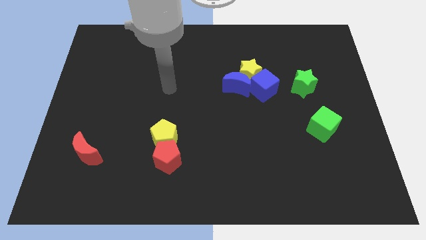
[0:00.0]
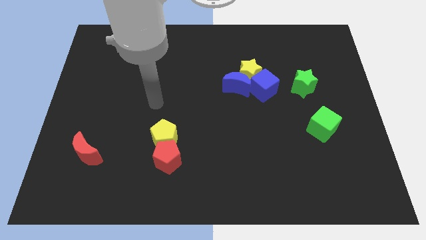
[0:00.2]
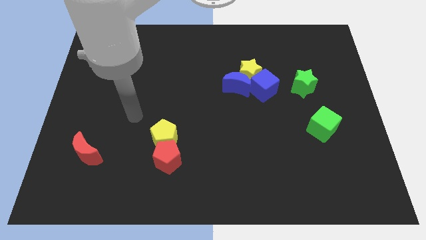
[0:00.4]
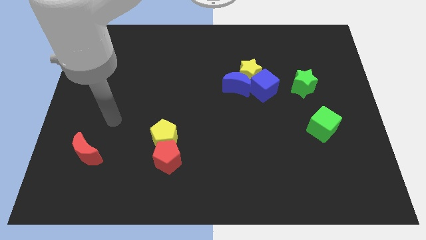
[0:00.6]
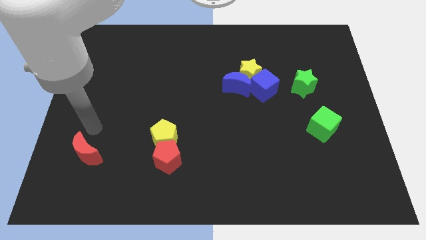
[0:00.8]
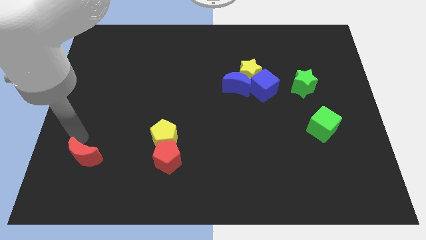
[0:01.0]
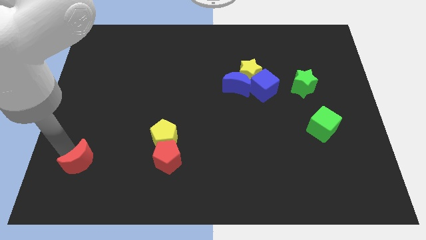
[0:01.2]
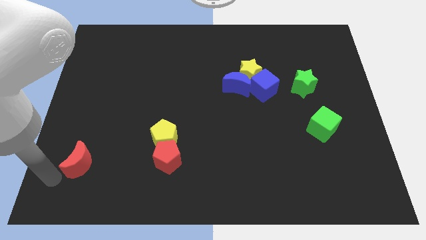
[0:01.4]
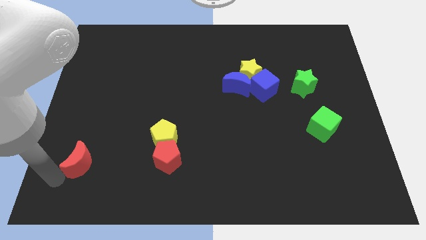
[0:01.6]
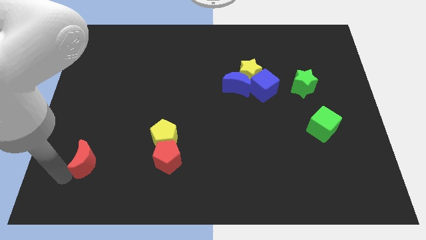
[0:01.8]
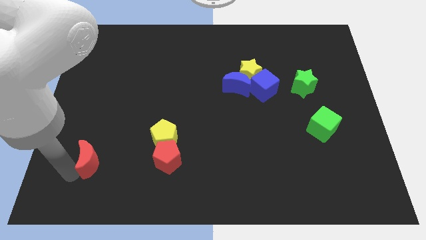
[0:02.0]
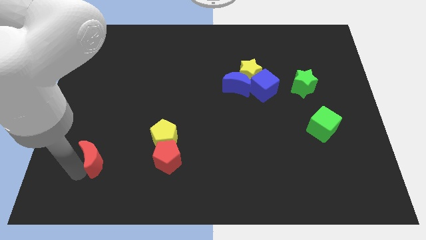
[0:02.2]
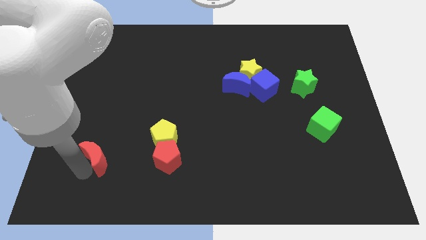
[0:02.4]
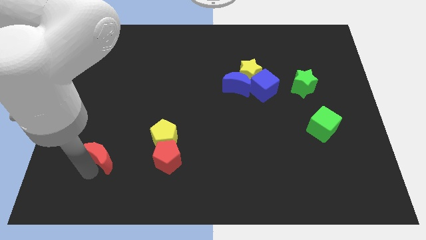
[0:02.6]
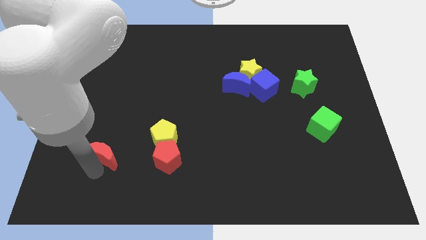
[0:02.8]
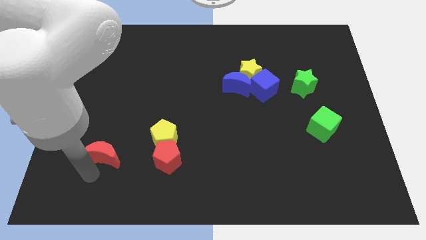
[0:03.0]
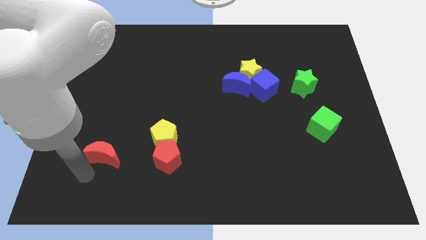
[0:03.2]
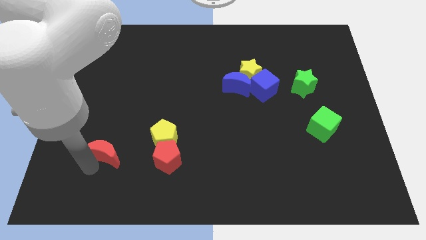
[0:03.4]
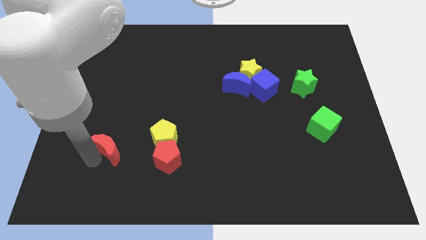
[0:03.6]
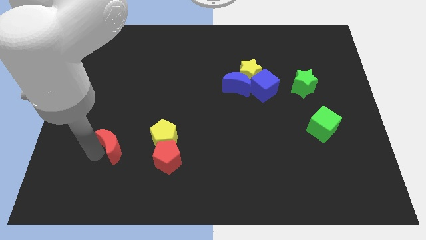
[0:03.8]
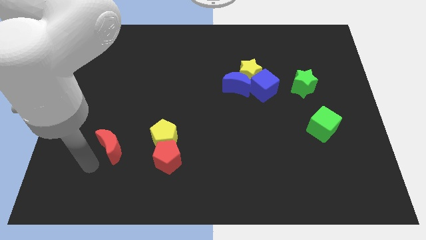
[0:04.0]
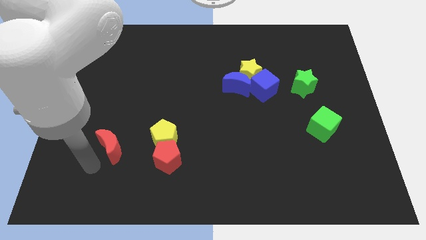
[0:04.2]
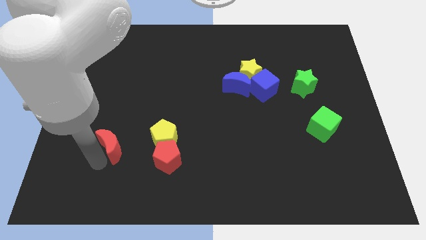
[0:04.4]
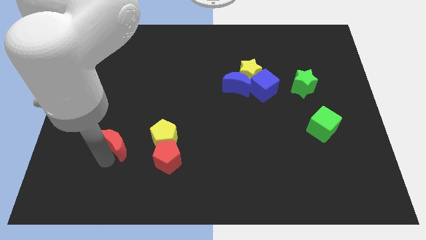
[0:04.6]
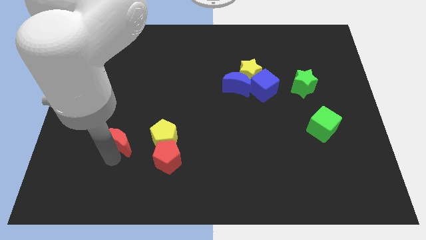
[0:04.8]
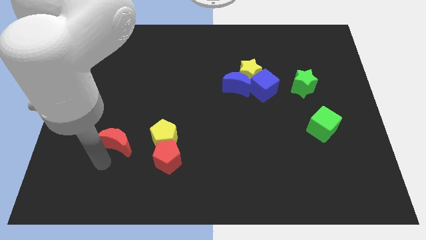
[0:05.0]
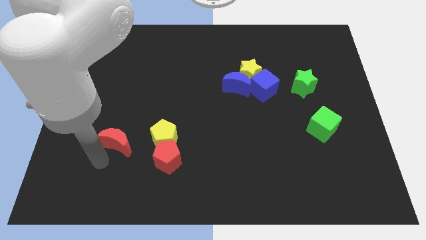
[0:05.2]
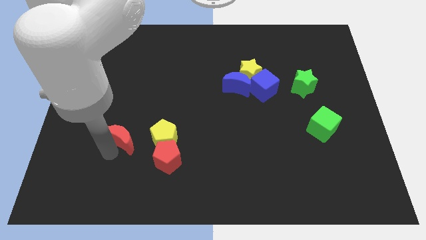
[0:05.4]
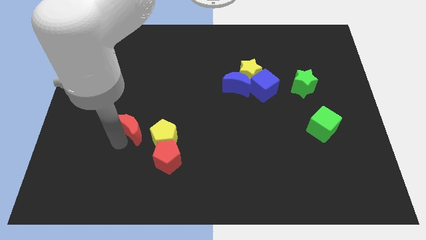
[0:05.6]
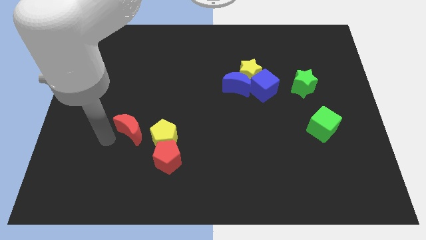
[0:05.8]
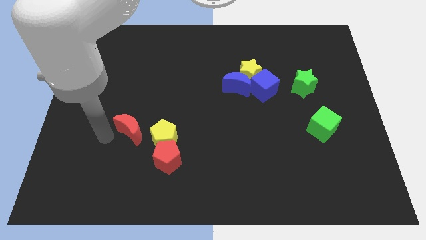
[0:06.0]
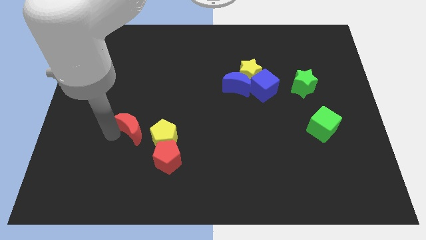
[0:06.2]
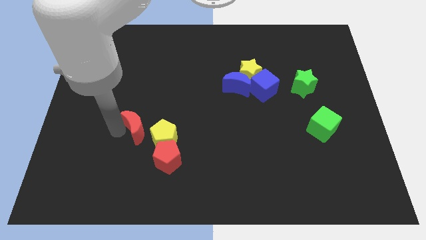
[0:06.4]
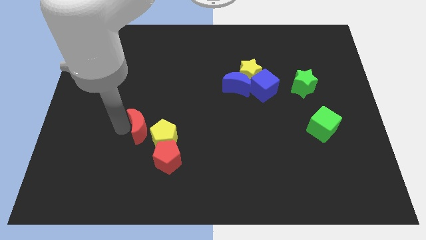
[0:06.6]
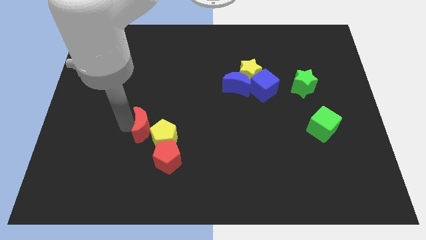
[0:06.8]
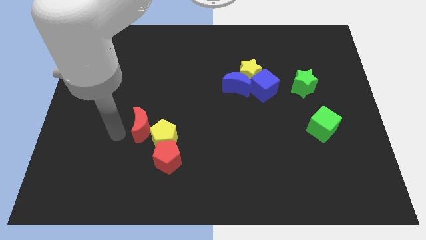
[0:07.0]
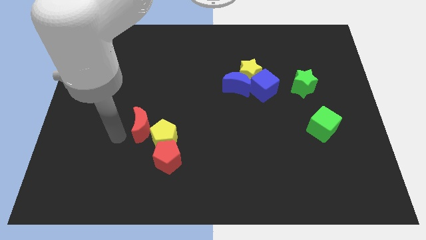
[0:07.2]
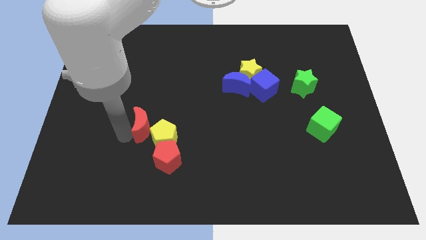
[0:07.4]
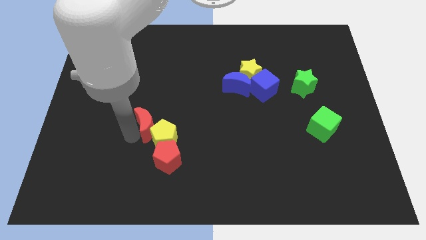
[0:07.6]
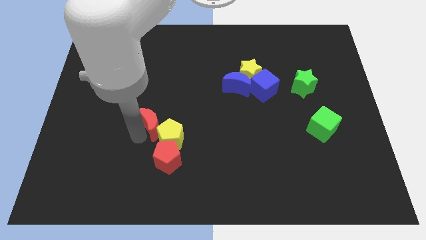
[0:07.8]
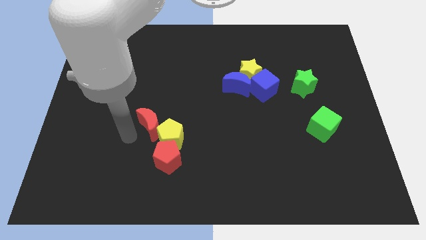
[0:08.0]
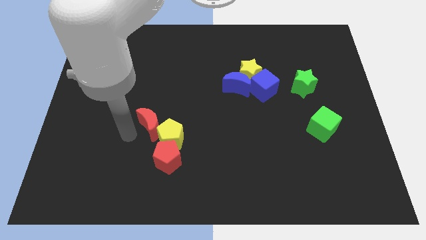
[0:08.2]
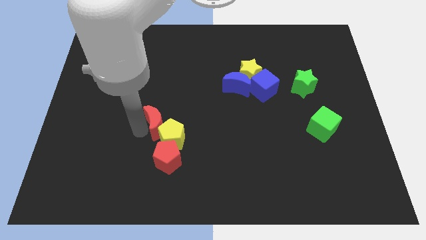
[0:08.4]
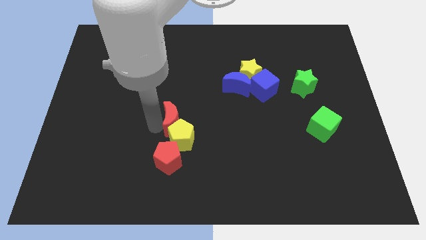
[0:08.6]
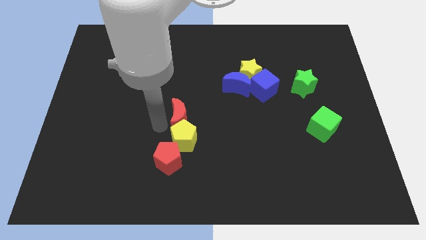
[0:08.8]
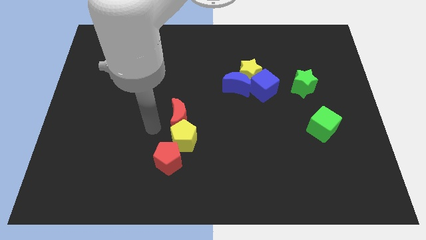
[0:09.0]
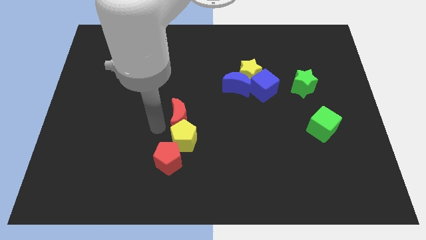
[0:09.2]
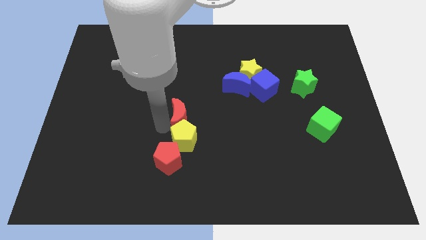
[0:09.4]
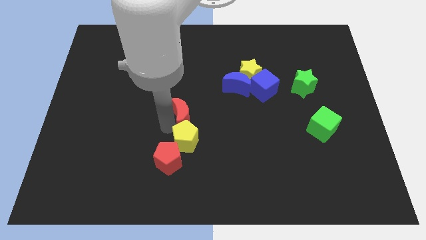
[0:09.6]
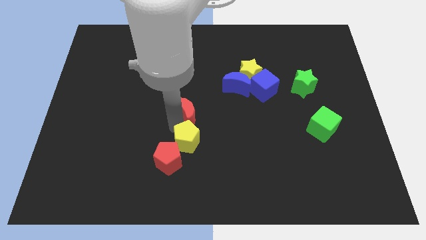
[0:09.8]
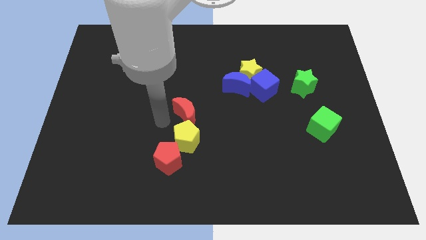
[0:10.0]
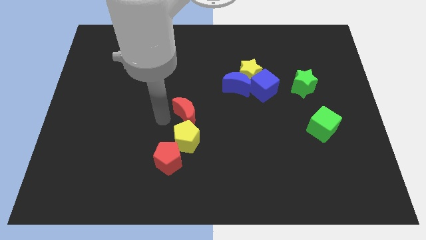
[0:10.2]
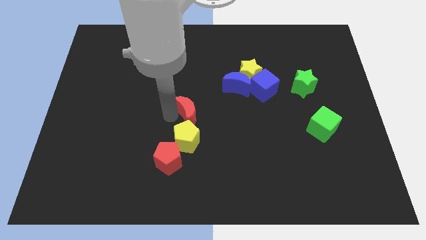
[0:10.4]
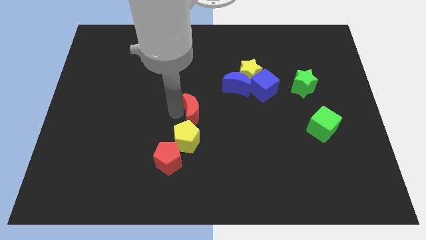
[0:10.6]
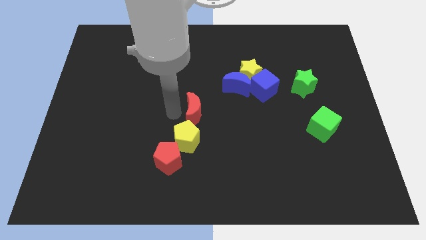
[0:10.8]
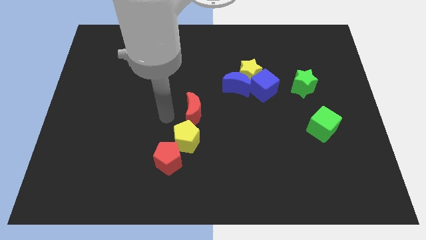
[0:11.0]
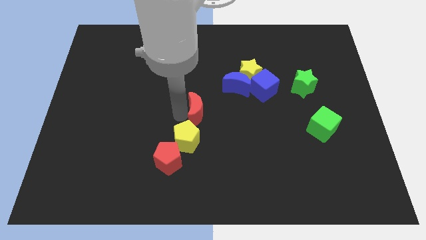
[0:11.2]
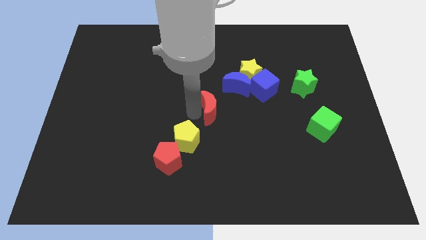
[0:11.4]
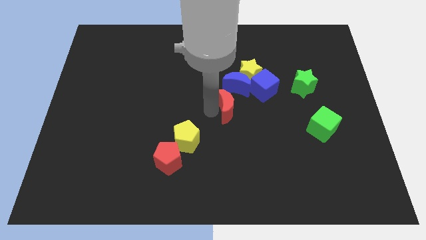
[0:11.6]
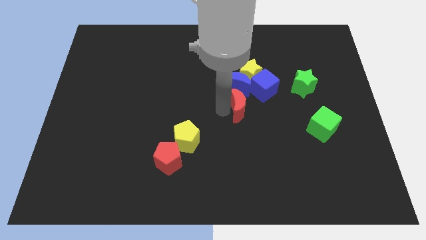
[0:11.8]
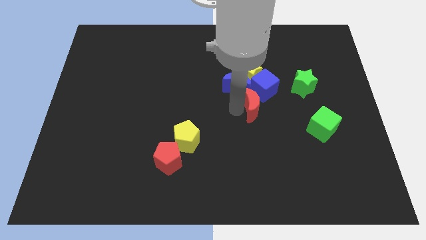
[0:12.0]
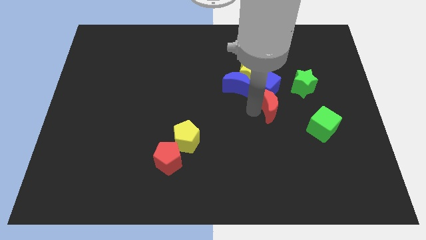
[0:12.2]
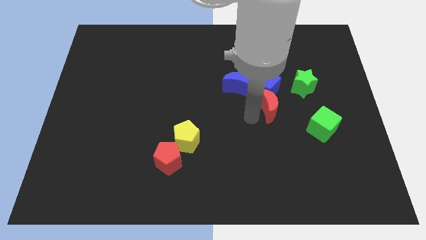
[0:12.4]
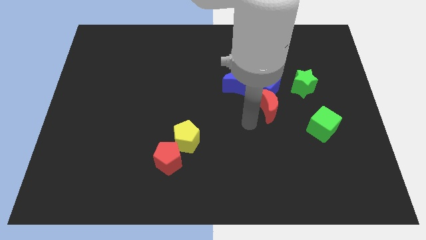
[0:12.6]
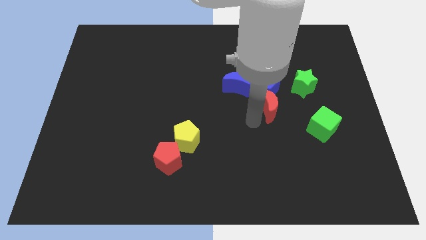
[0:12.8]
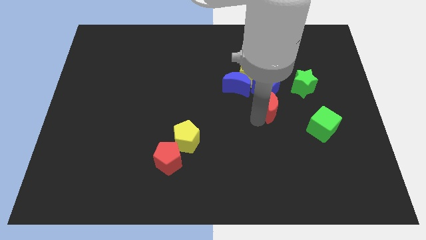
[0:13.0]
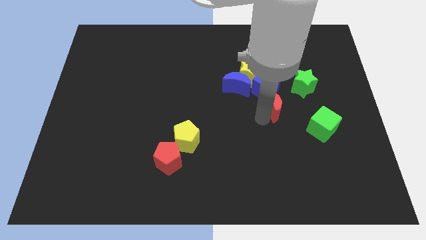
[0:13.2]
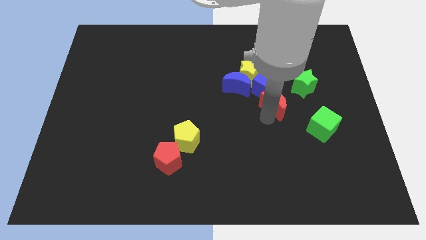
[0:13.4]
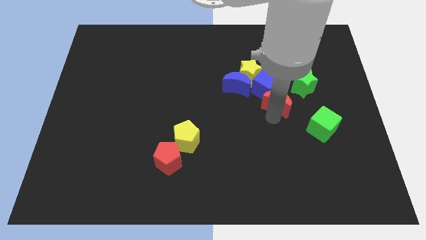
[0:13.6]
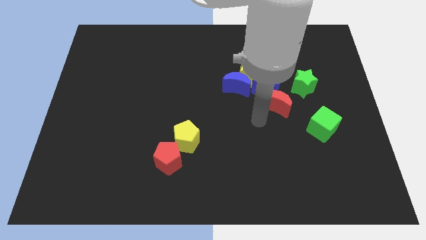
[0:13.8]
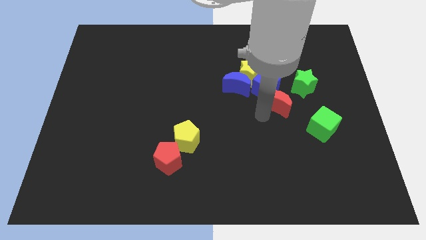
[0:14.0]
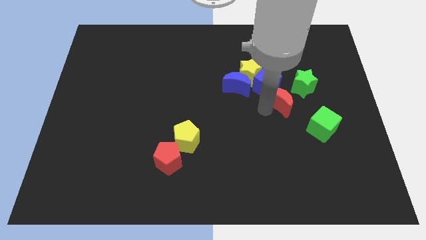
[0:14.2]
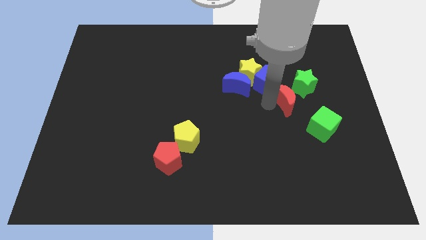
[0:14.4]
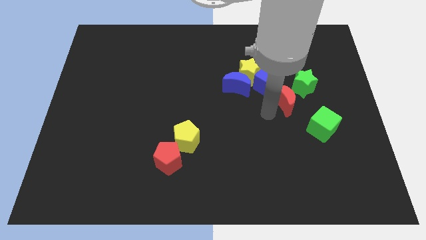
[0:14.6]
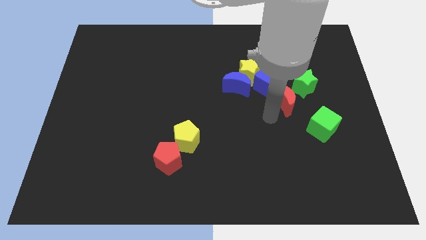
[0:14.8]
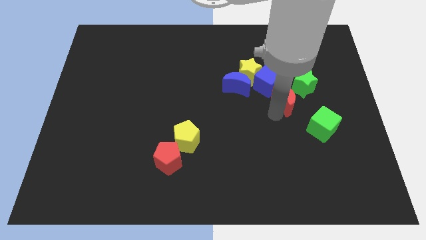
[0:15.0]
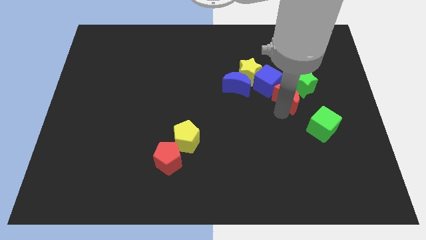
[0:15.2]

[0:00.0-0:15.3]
slide the red moon close to the green star
